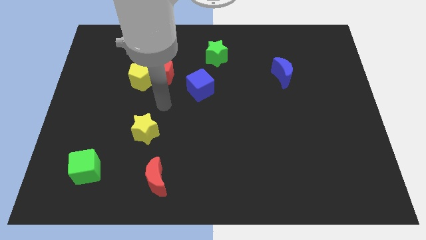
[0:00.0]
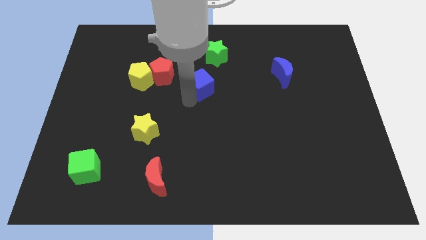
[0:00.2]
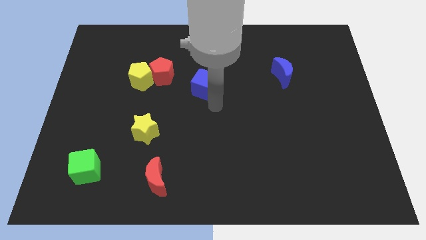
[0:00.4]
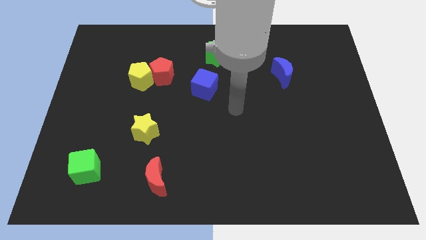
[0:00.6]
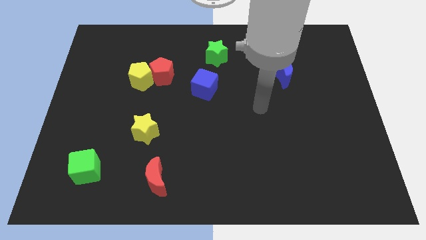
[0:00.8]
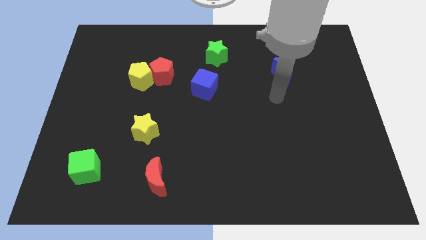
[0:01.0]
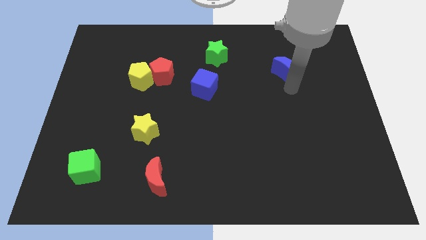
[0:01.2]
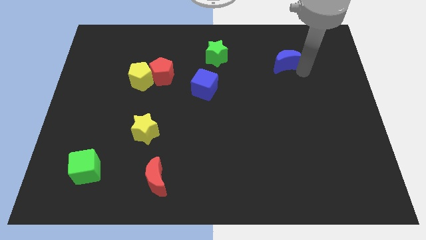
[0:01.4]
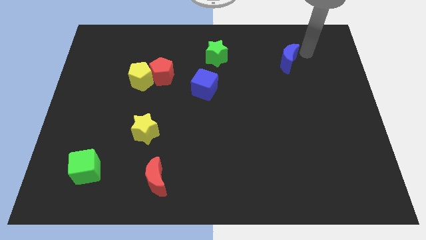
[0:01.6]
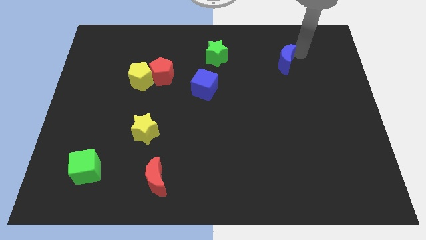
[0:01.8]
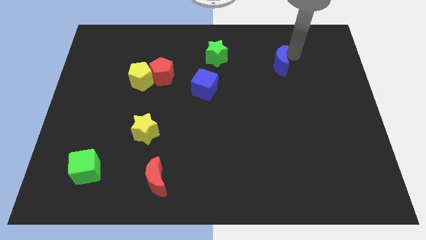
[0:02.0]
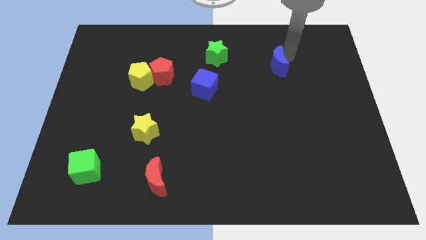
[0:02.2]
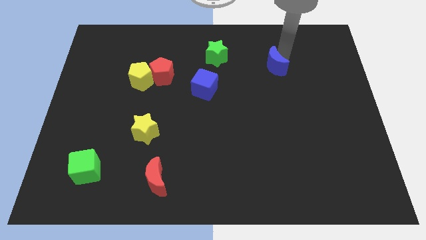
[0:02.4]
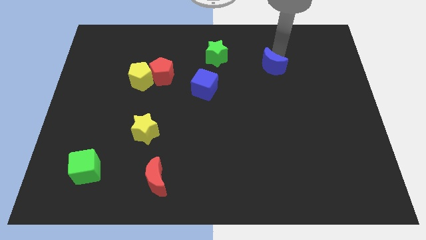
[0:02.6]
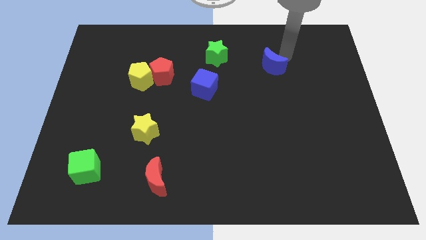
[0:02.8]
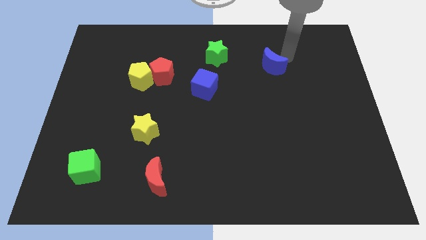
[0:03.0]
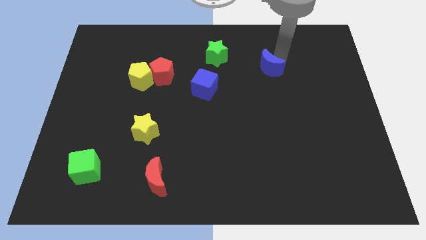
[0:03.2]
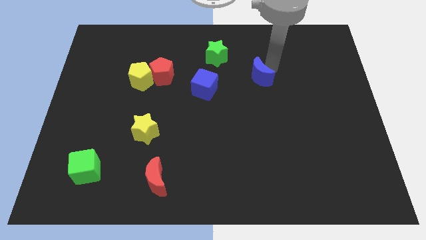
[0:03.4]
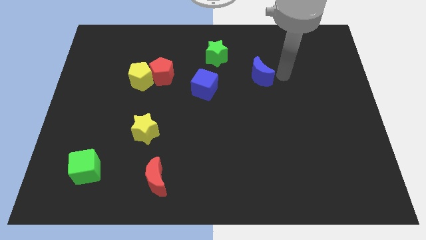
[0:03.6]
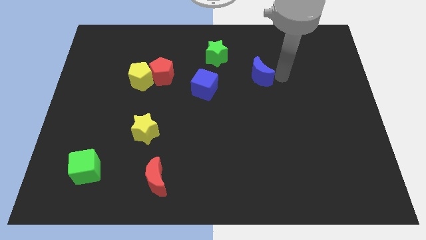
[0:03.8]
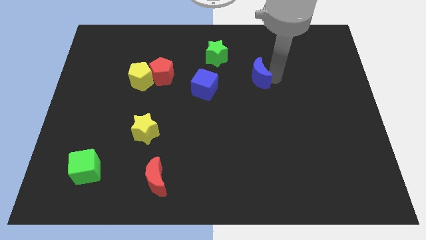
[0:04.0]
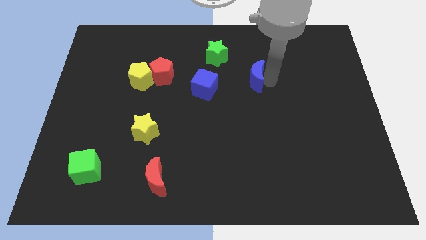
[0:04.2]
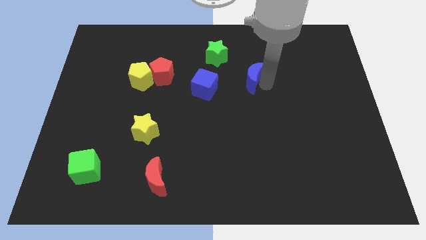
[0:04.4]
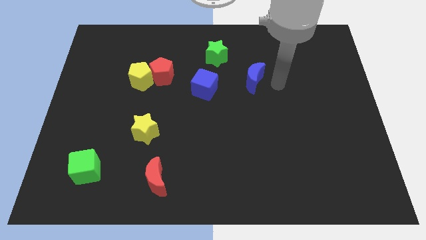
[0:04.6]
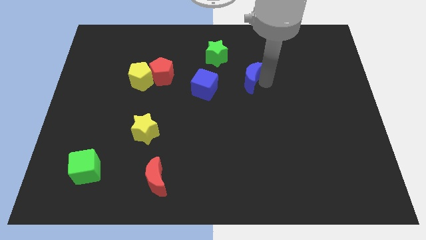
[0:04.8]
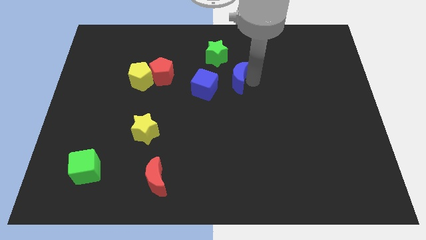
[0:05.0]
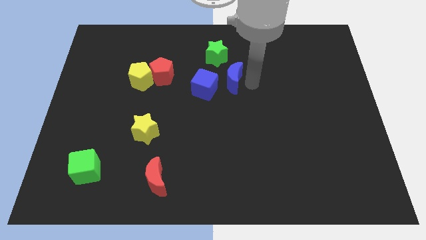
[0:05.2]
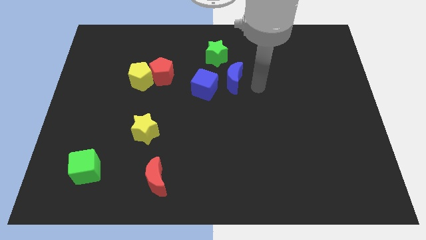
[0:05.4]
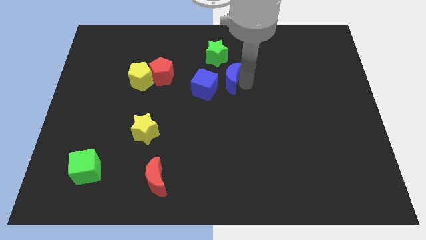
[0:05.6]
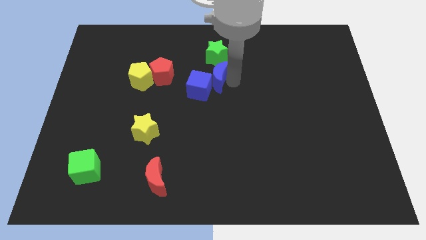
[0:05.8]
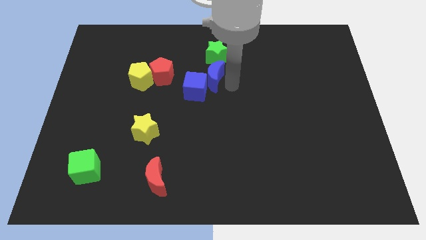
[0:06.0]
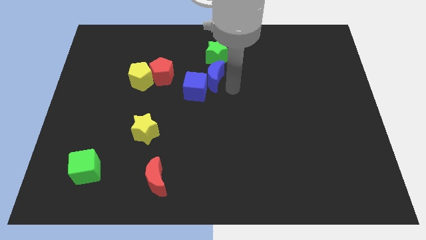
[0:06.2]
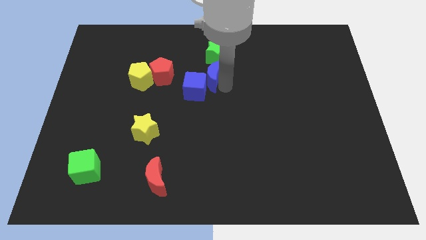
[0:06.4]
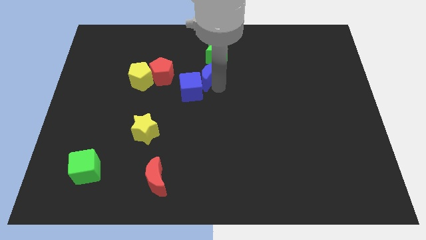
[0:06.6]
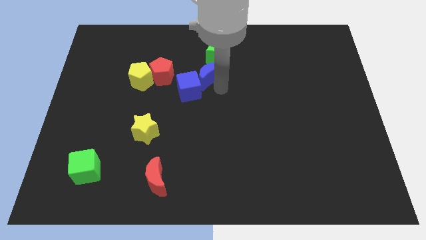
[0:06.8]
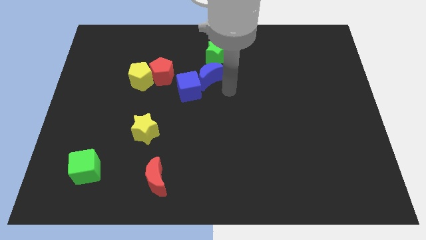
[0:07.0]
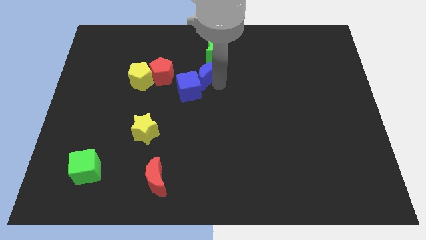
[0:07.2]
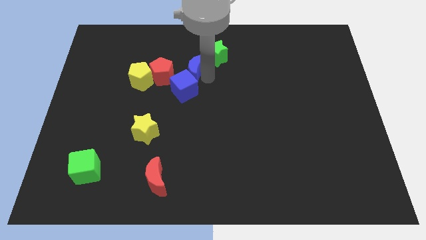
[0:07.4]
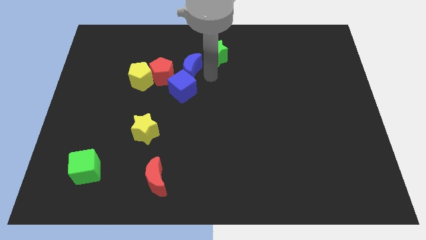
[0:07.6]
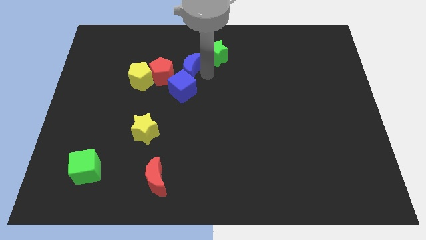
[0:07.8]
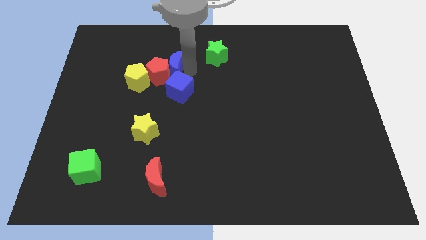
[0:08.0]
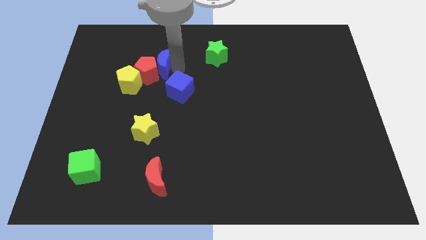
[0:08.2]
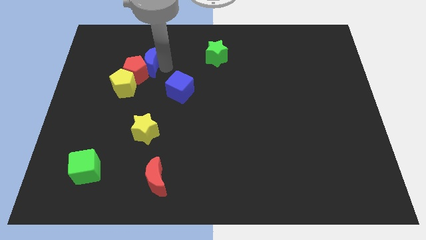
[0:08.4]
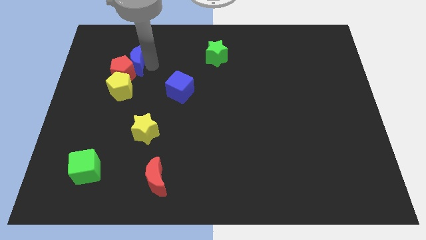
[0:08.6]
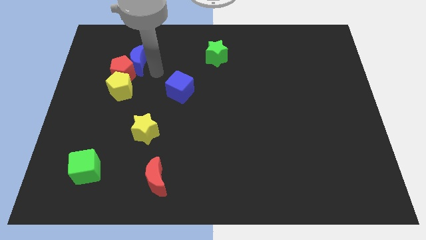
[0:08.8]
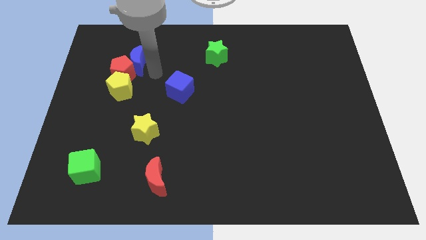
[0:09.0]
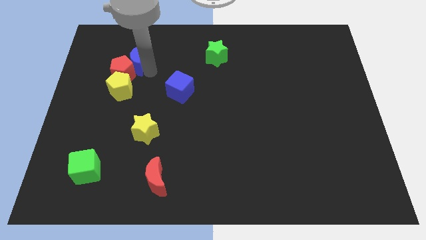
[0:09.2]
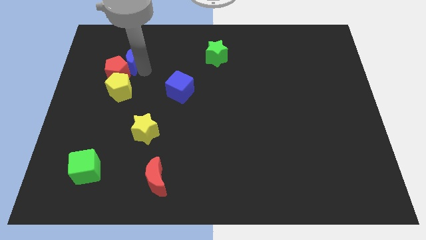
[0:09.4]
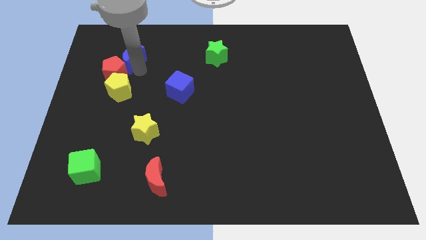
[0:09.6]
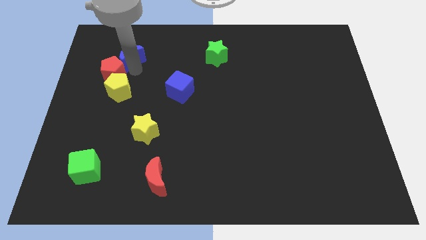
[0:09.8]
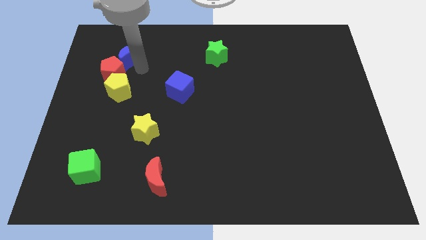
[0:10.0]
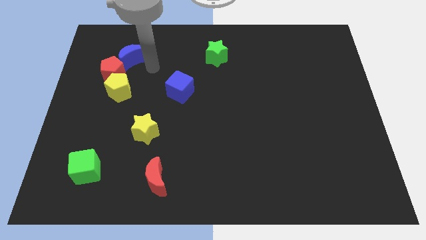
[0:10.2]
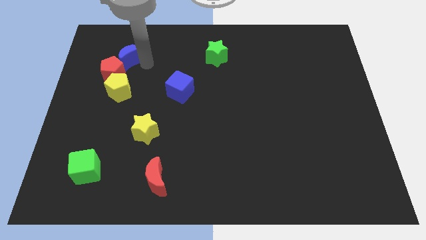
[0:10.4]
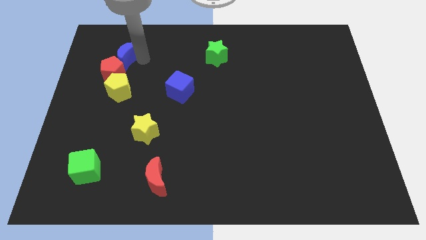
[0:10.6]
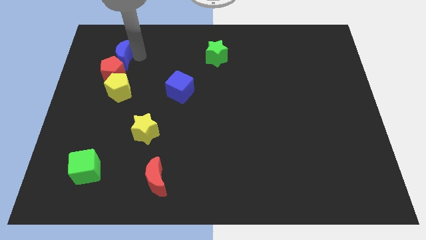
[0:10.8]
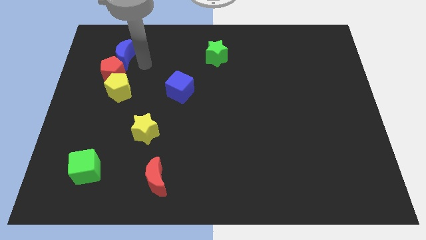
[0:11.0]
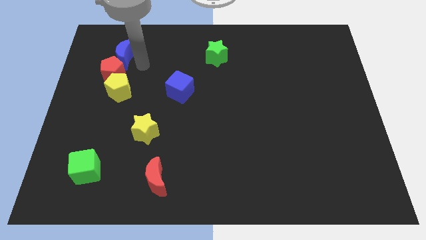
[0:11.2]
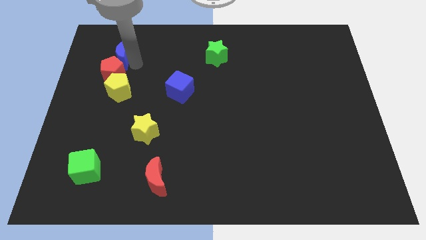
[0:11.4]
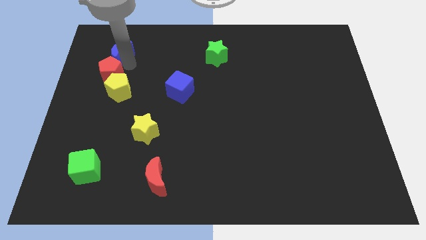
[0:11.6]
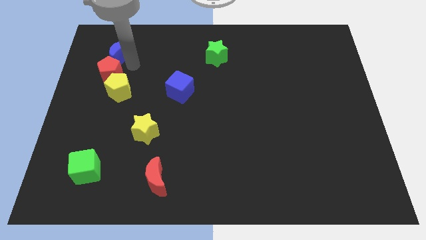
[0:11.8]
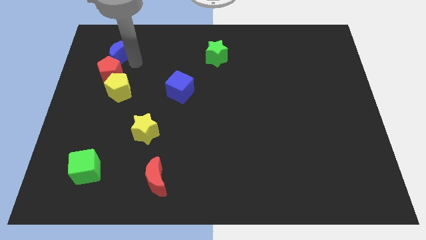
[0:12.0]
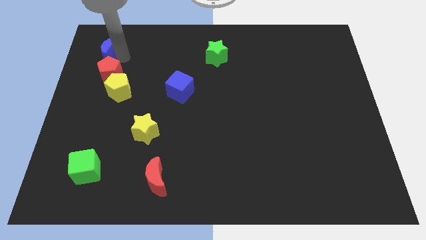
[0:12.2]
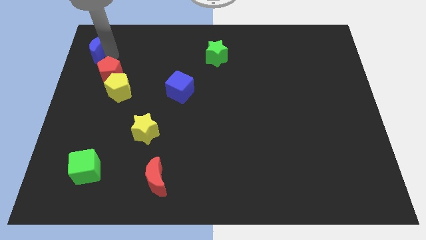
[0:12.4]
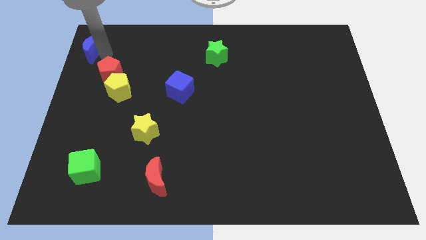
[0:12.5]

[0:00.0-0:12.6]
slide the blue moon to the upper left corner
